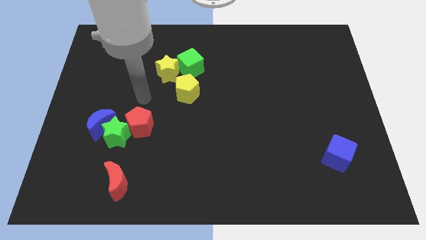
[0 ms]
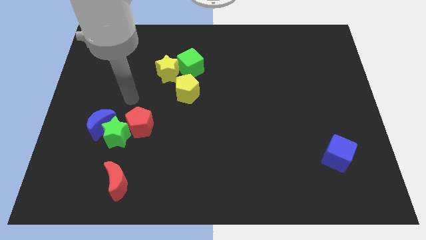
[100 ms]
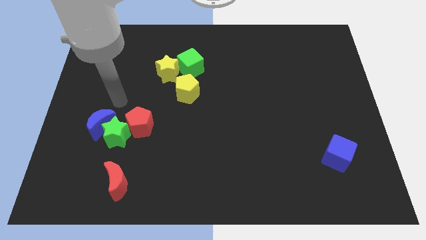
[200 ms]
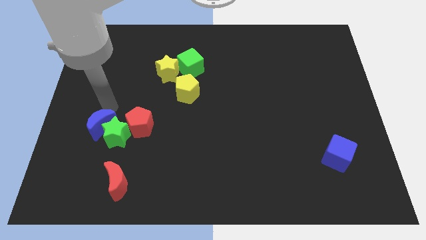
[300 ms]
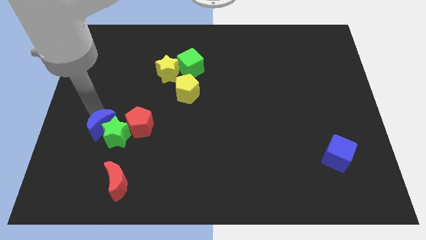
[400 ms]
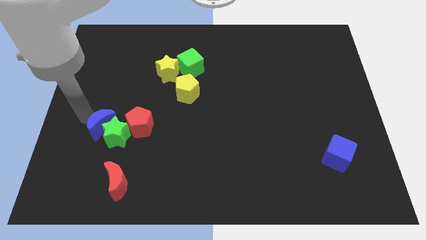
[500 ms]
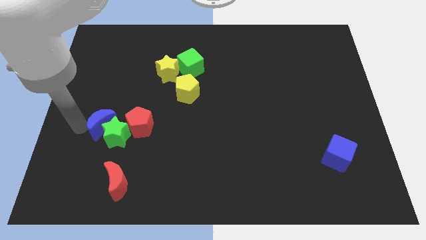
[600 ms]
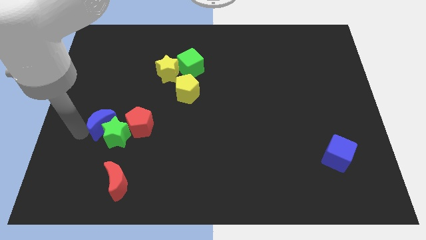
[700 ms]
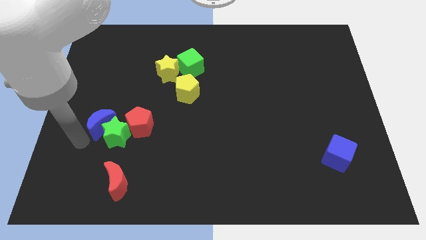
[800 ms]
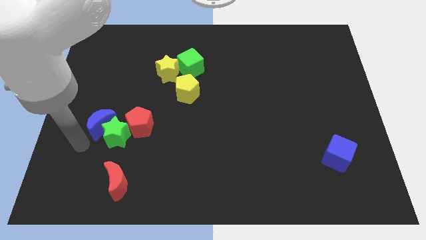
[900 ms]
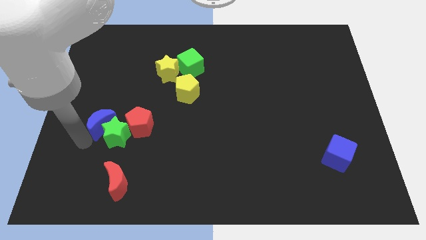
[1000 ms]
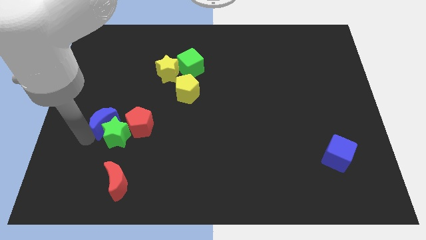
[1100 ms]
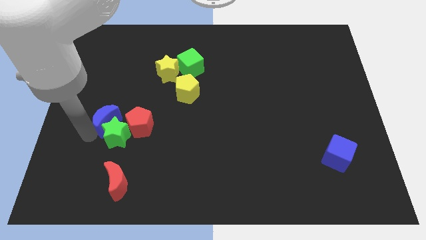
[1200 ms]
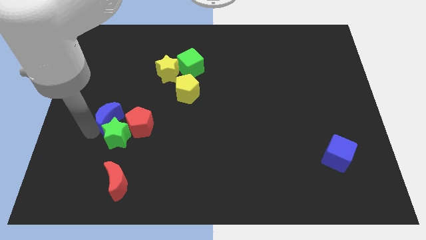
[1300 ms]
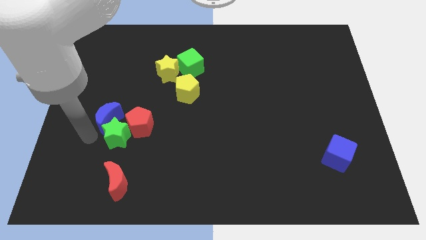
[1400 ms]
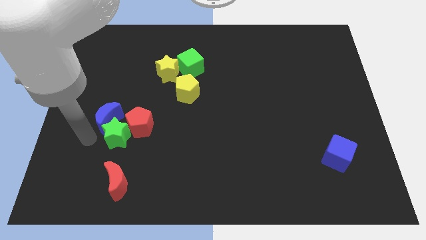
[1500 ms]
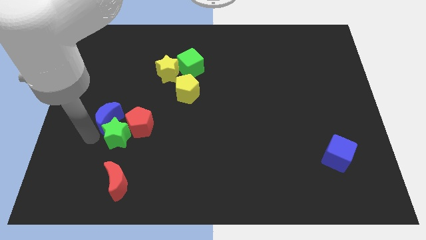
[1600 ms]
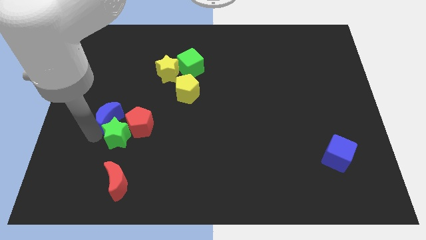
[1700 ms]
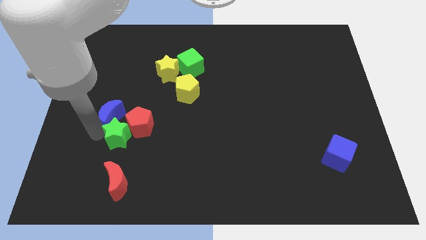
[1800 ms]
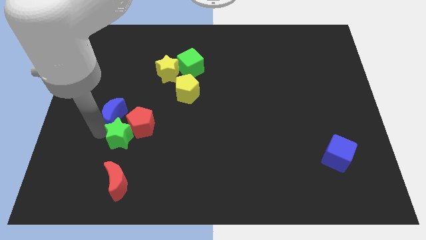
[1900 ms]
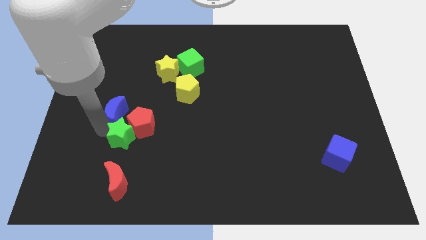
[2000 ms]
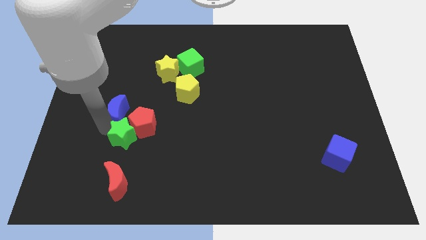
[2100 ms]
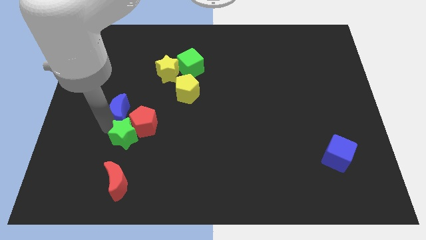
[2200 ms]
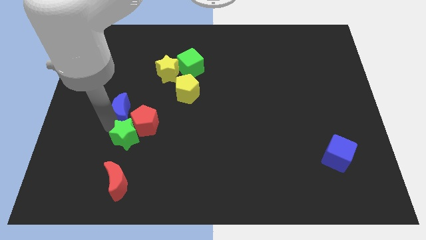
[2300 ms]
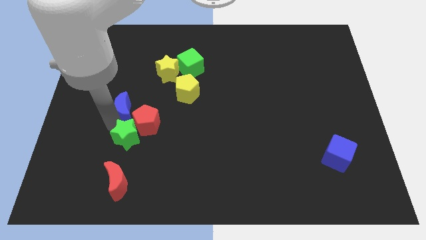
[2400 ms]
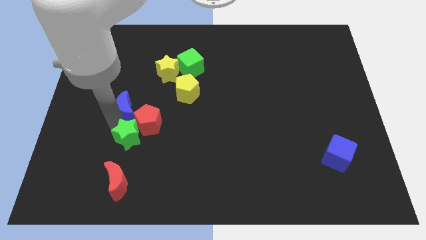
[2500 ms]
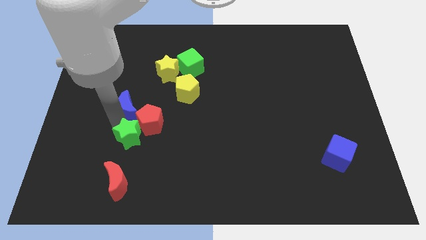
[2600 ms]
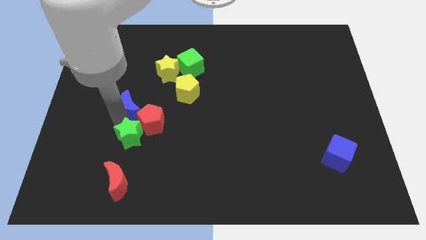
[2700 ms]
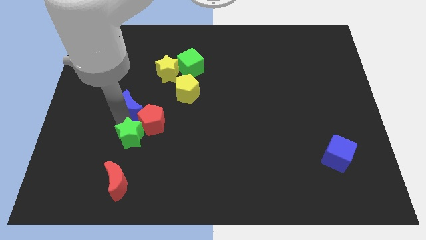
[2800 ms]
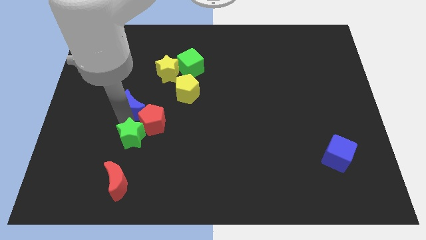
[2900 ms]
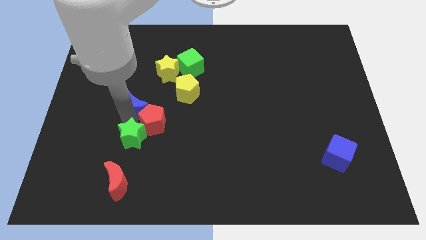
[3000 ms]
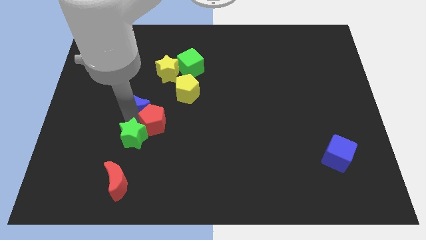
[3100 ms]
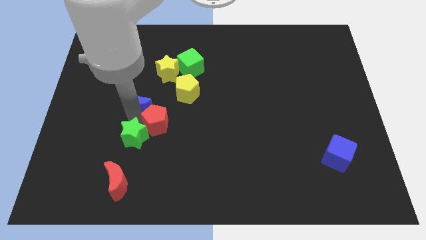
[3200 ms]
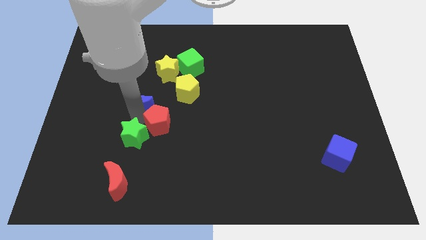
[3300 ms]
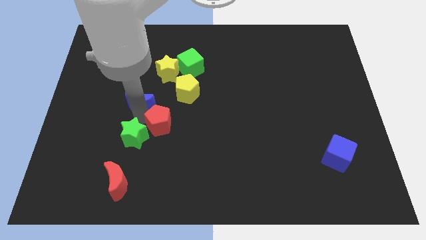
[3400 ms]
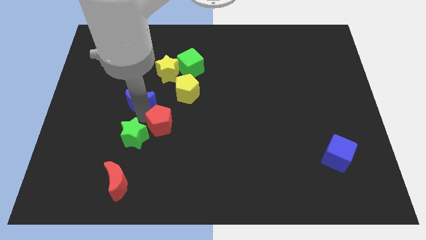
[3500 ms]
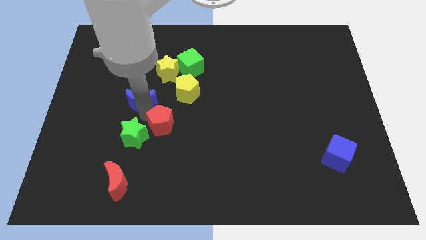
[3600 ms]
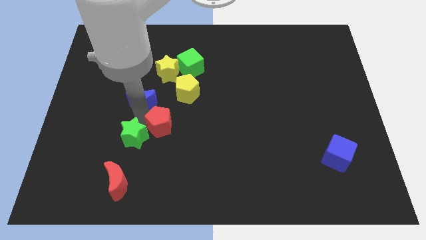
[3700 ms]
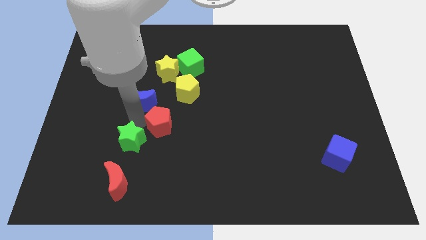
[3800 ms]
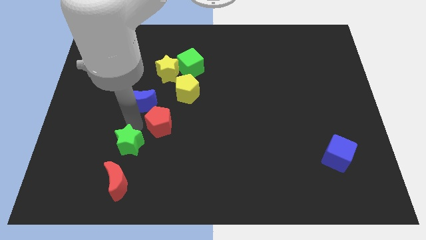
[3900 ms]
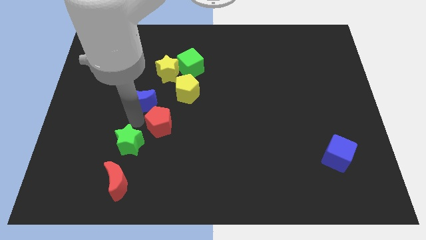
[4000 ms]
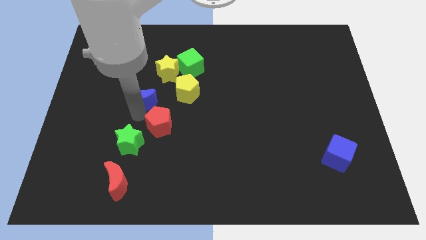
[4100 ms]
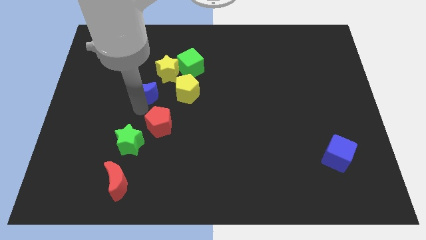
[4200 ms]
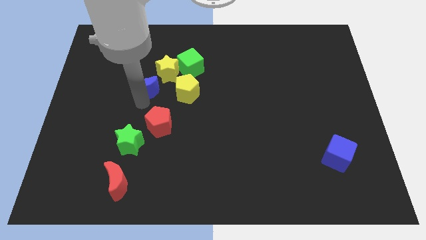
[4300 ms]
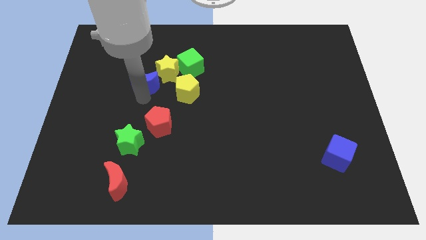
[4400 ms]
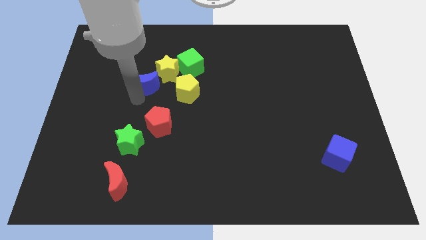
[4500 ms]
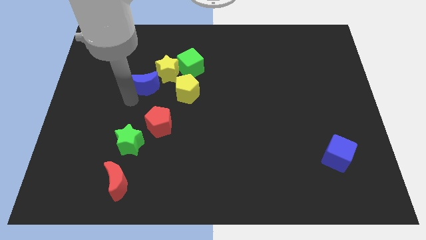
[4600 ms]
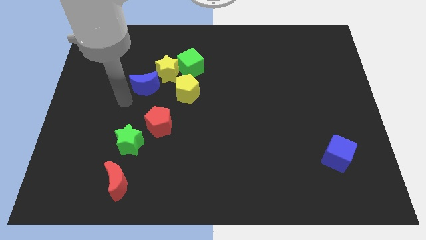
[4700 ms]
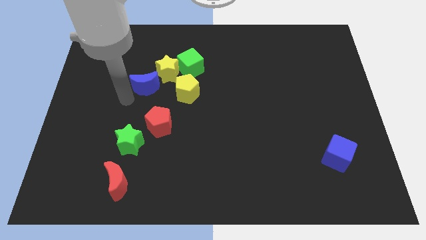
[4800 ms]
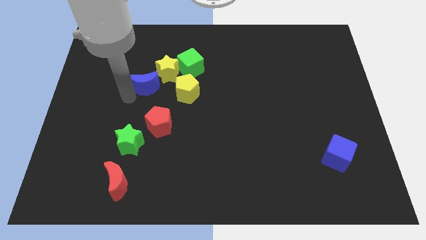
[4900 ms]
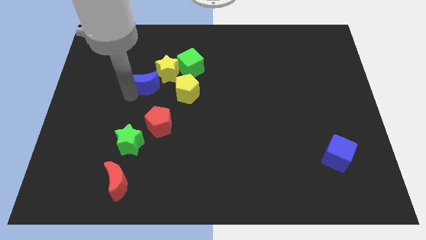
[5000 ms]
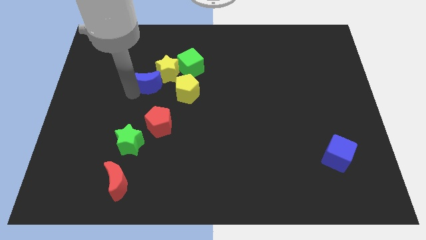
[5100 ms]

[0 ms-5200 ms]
push the blue moon close to the yellow star

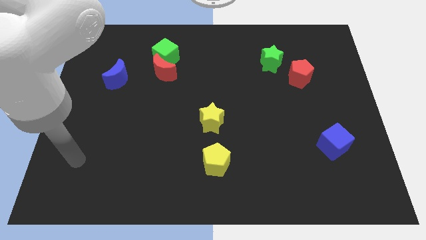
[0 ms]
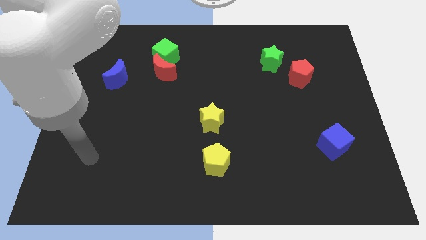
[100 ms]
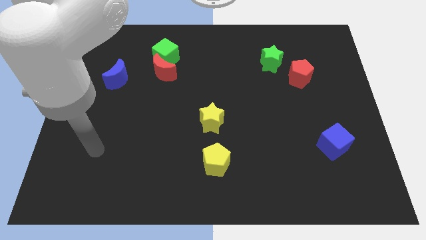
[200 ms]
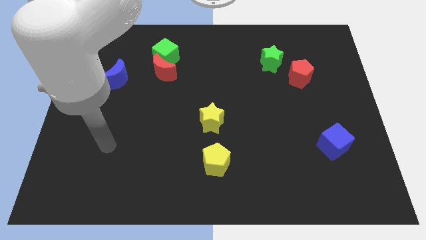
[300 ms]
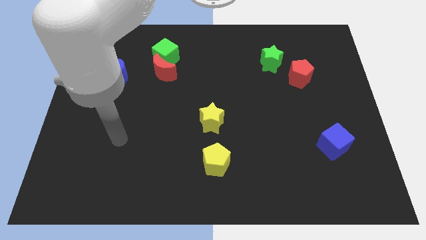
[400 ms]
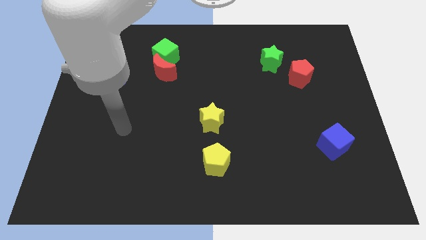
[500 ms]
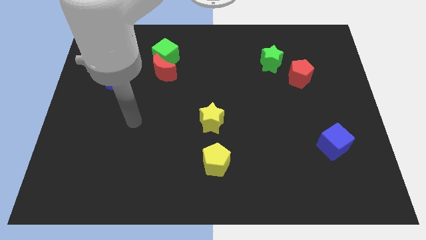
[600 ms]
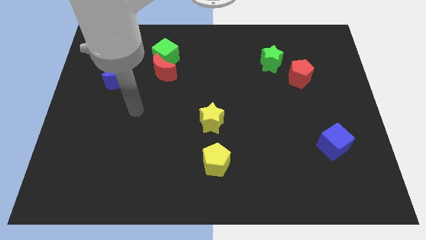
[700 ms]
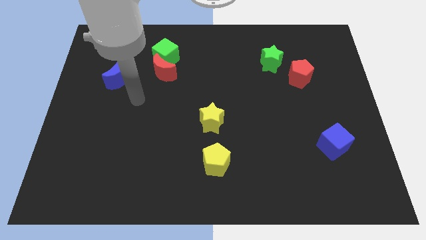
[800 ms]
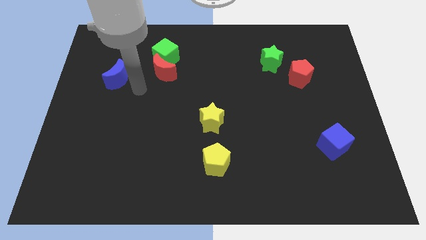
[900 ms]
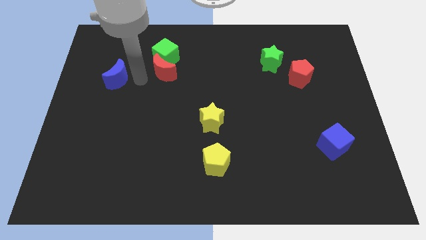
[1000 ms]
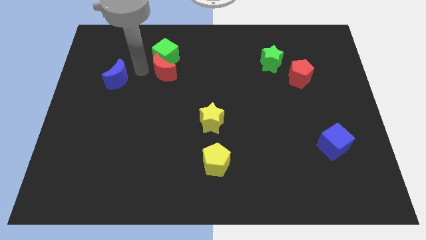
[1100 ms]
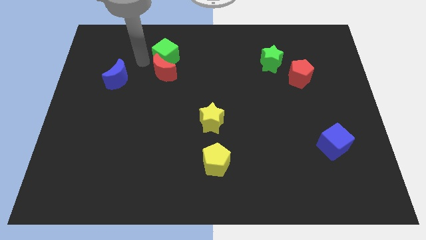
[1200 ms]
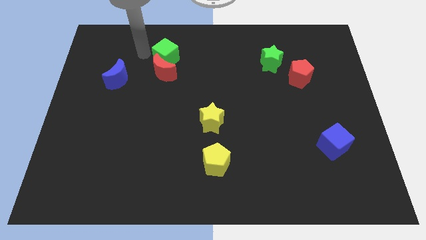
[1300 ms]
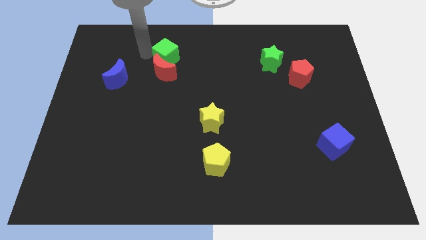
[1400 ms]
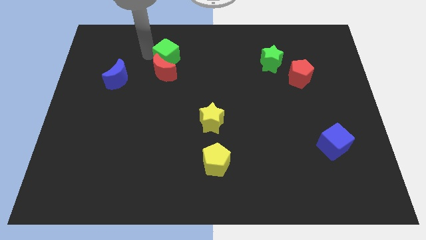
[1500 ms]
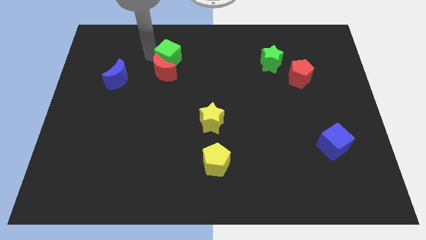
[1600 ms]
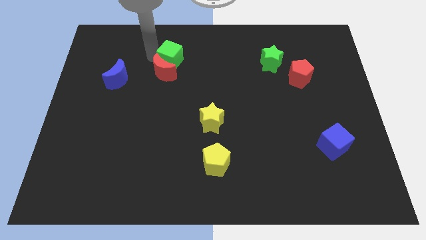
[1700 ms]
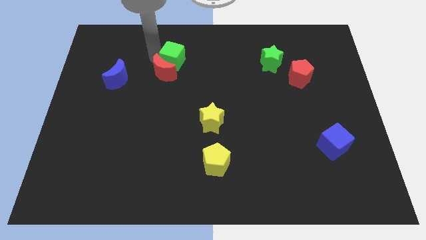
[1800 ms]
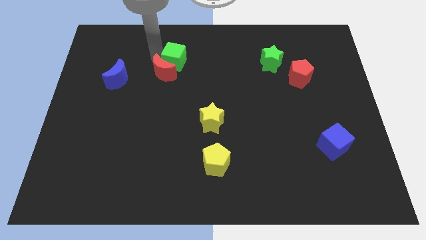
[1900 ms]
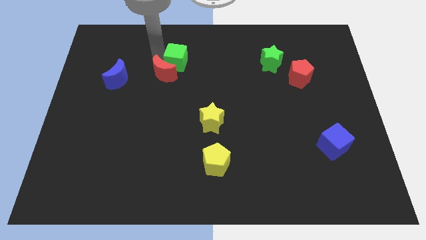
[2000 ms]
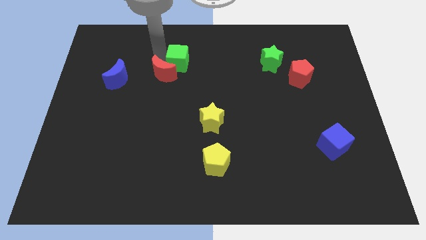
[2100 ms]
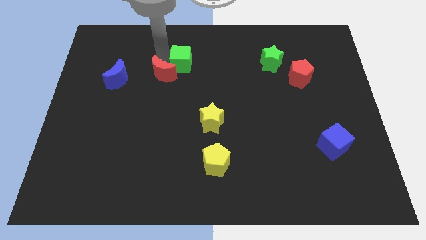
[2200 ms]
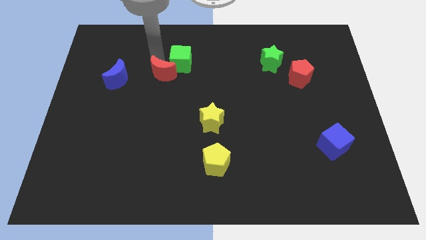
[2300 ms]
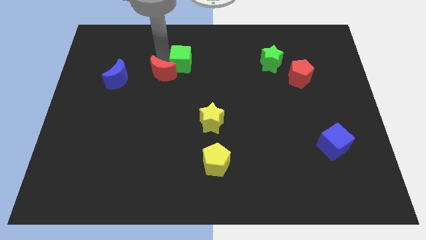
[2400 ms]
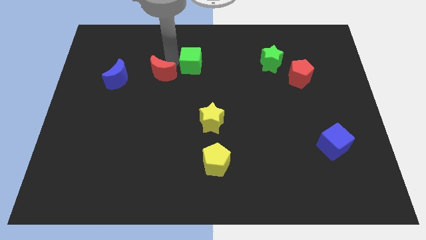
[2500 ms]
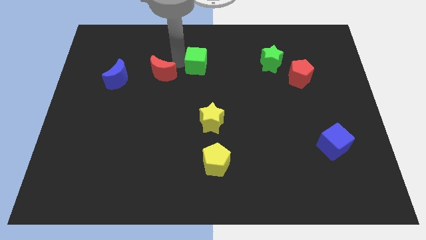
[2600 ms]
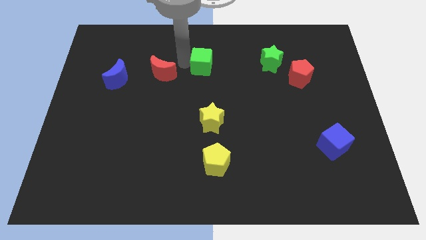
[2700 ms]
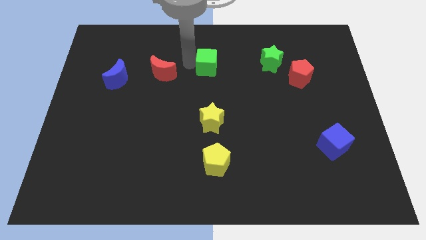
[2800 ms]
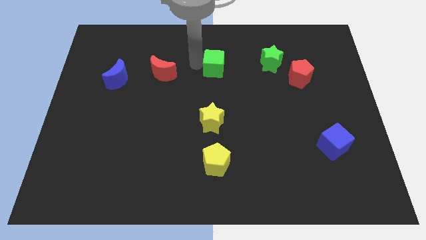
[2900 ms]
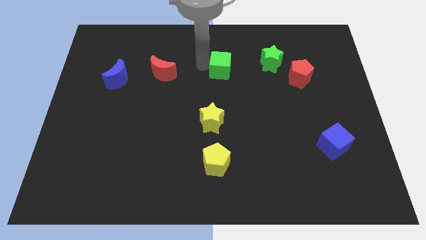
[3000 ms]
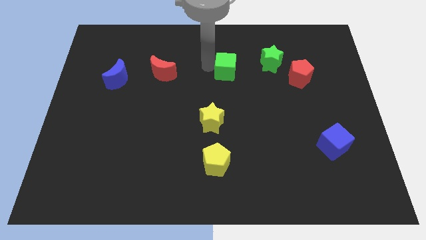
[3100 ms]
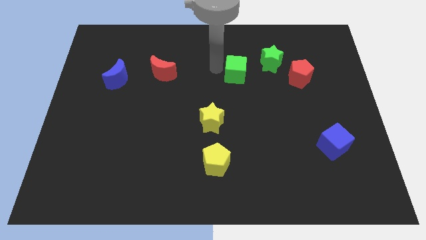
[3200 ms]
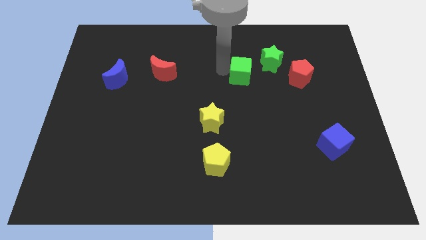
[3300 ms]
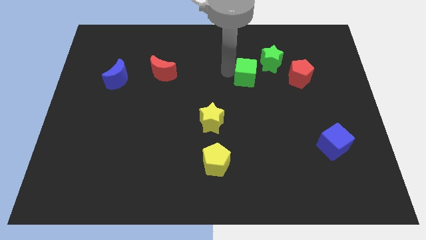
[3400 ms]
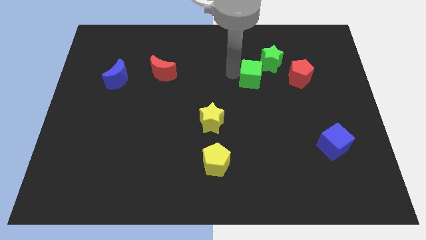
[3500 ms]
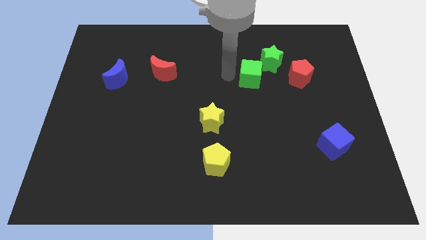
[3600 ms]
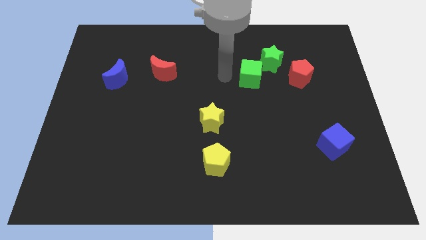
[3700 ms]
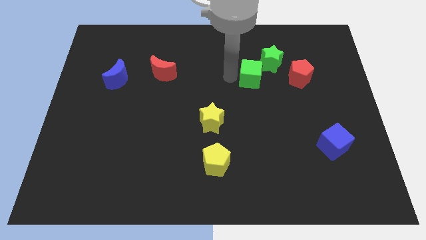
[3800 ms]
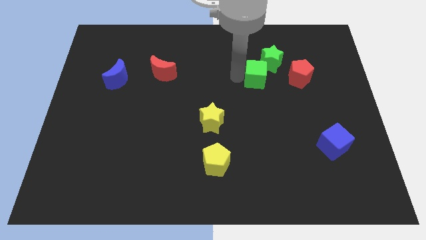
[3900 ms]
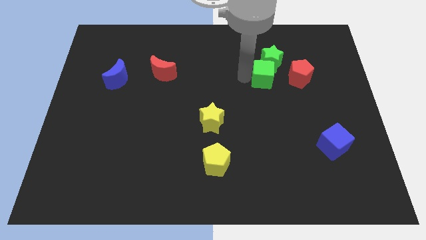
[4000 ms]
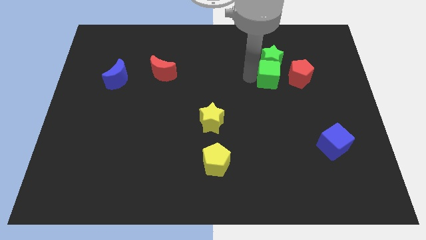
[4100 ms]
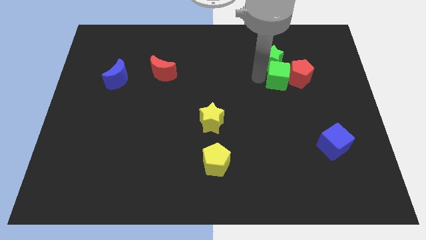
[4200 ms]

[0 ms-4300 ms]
slide the green cube to the red pentagon
